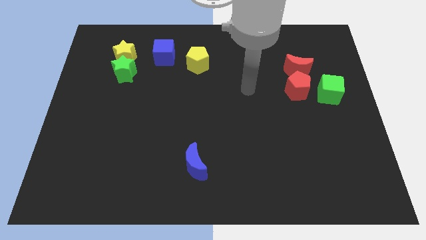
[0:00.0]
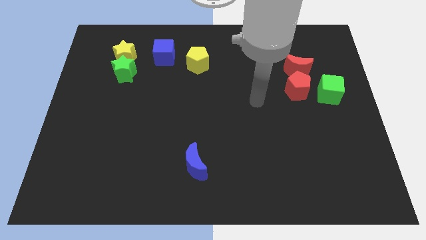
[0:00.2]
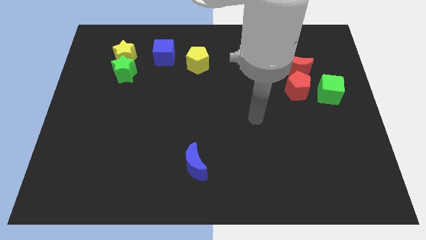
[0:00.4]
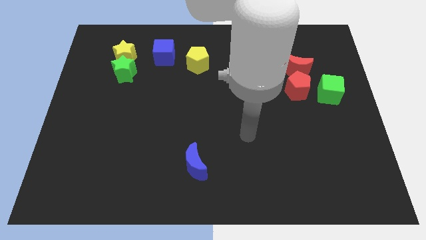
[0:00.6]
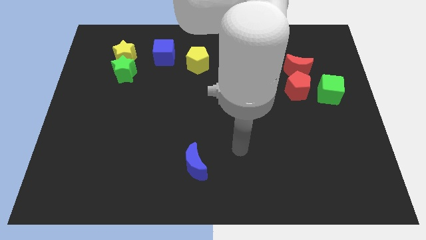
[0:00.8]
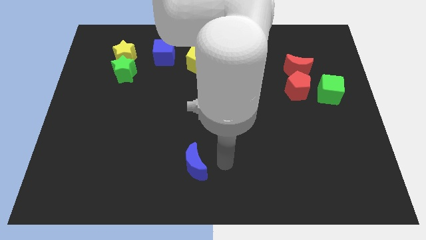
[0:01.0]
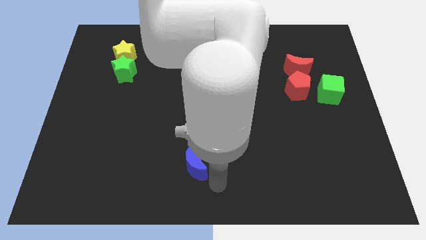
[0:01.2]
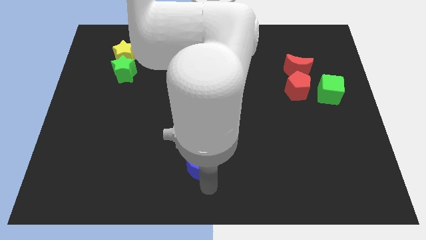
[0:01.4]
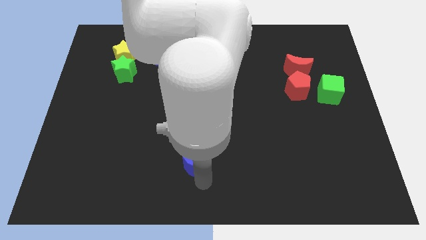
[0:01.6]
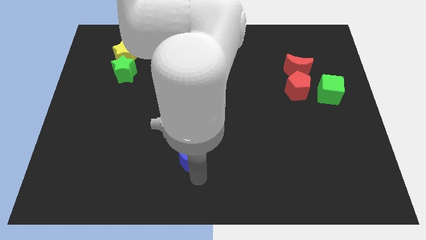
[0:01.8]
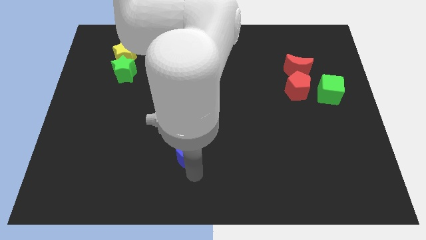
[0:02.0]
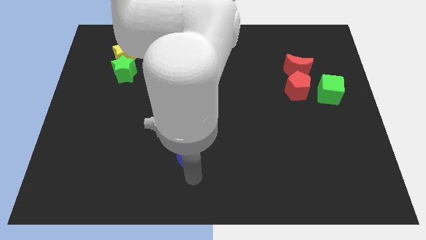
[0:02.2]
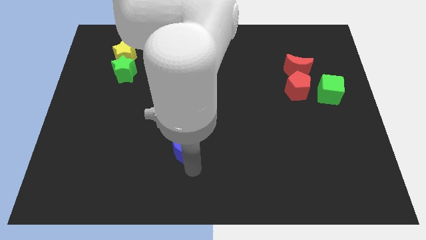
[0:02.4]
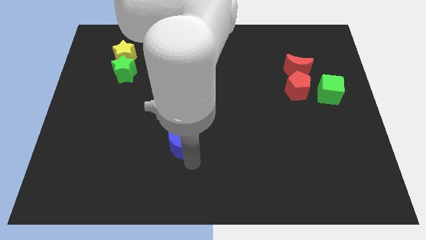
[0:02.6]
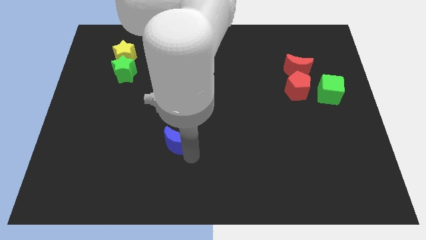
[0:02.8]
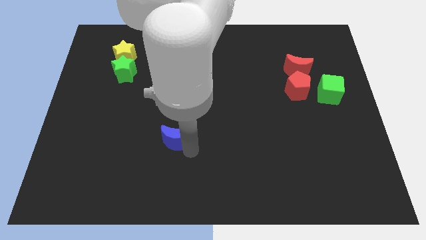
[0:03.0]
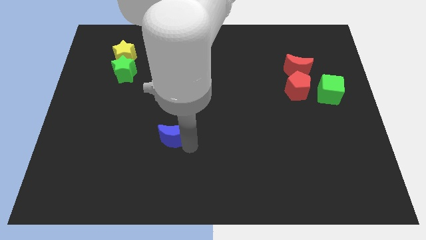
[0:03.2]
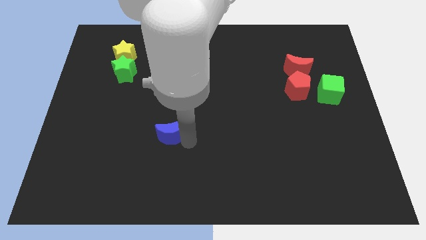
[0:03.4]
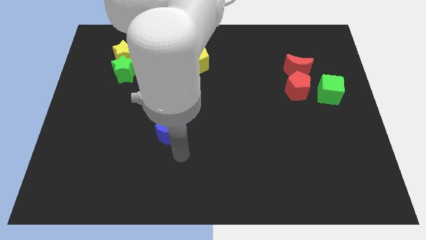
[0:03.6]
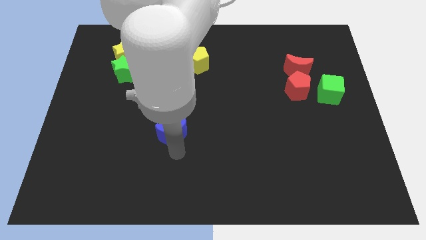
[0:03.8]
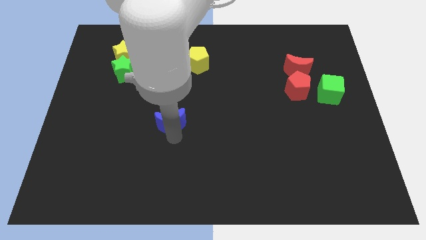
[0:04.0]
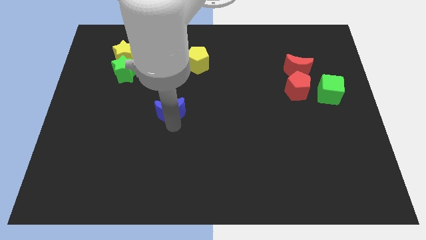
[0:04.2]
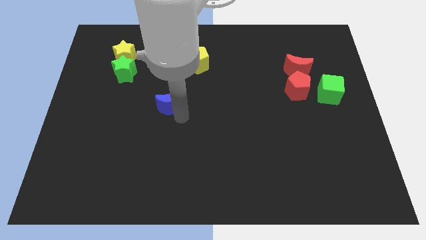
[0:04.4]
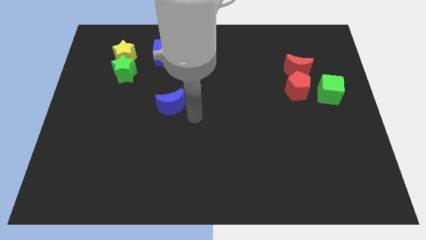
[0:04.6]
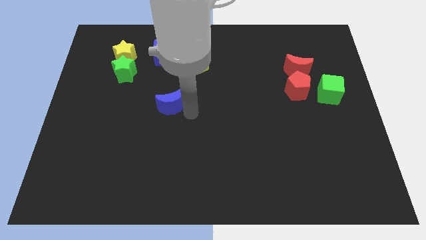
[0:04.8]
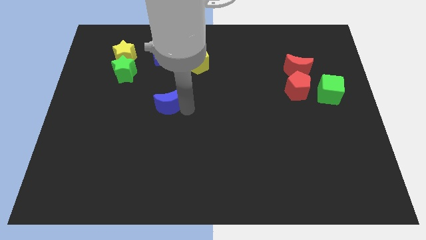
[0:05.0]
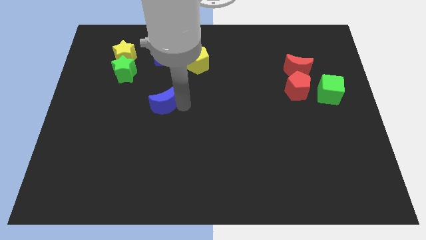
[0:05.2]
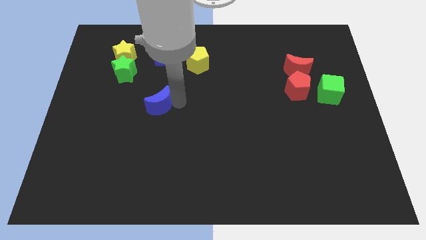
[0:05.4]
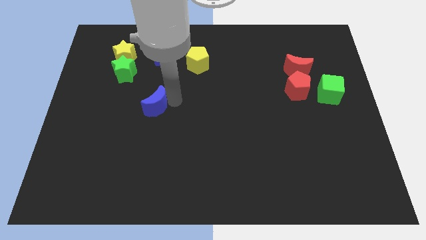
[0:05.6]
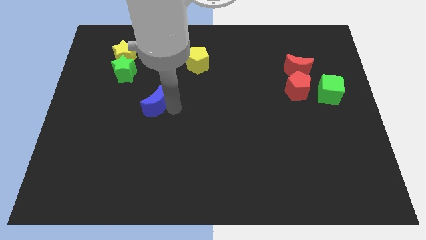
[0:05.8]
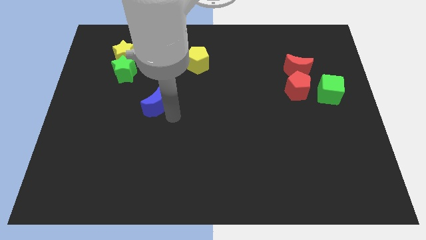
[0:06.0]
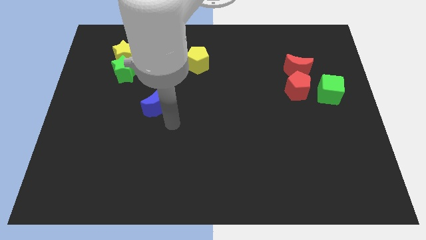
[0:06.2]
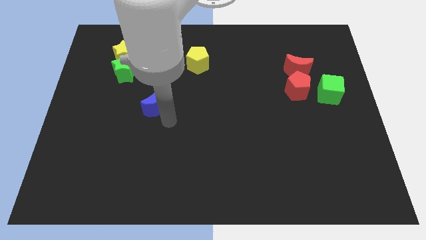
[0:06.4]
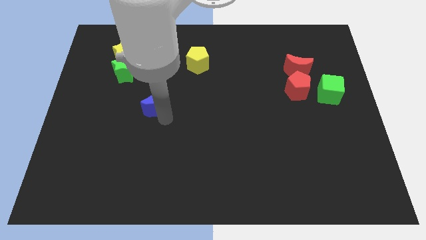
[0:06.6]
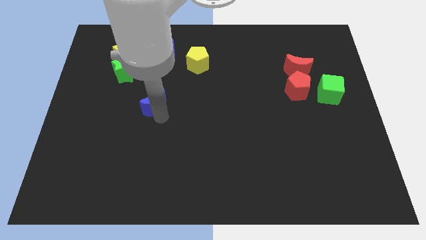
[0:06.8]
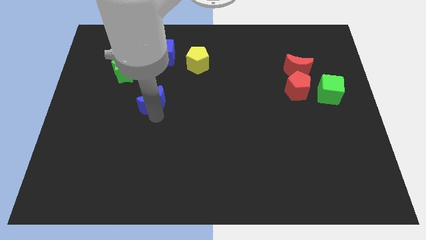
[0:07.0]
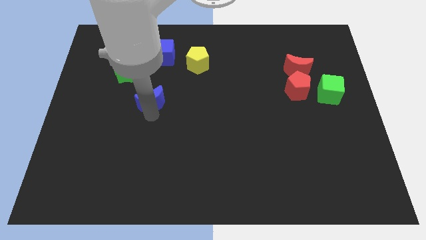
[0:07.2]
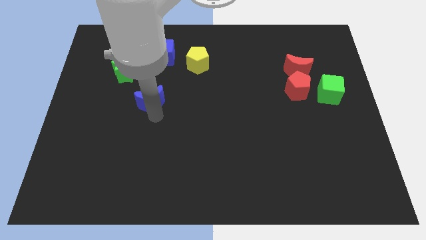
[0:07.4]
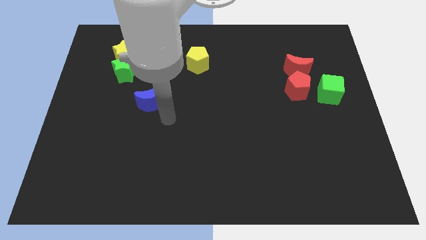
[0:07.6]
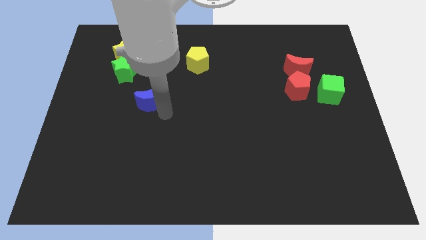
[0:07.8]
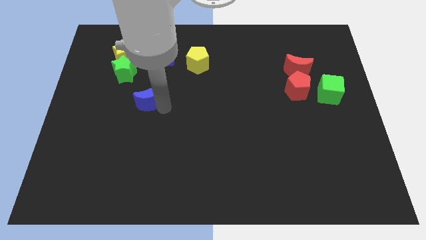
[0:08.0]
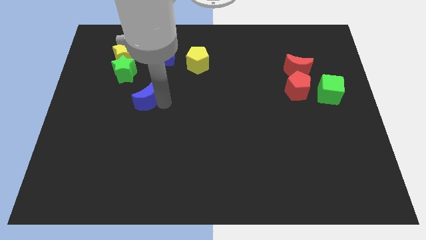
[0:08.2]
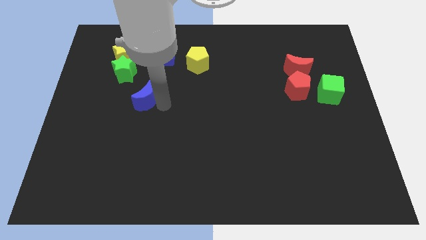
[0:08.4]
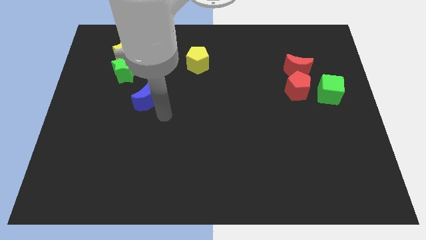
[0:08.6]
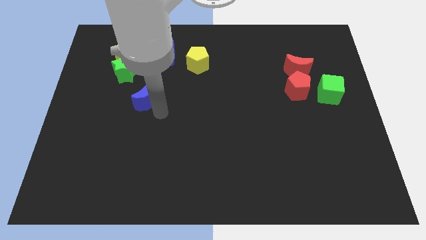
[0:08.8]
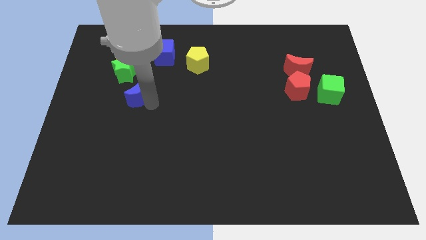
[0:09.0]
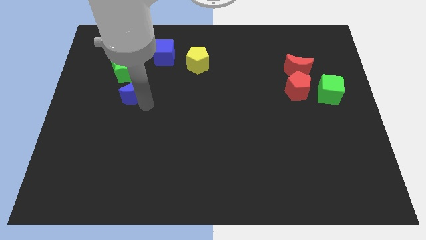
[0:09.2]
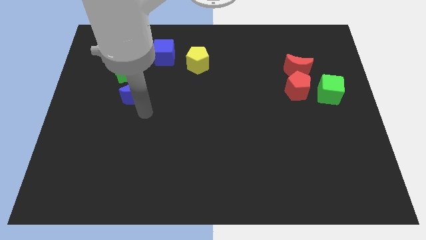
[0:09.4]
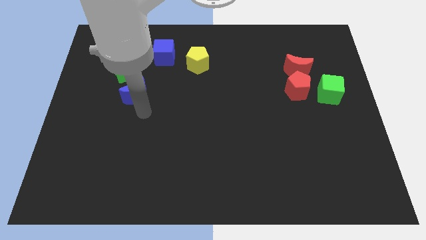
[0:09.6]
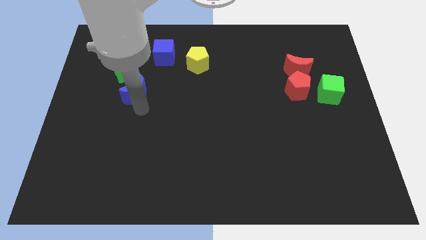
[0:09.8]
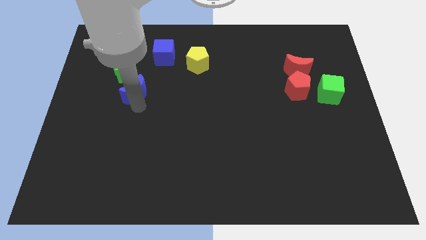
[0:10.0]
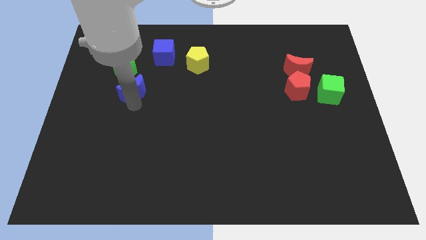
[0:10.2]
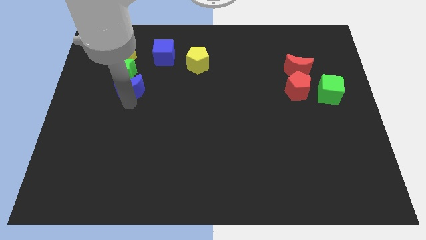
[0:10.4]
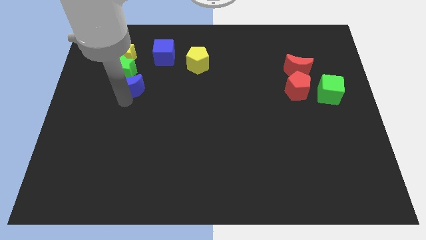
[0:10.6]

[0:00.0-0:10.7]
slide the blue moon to the green star

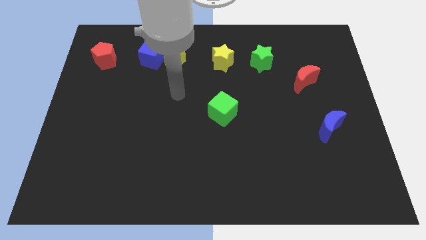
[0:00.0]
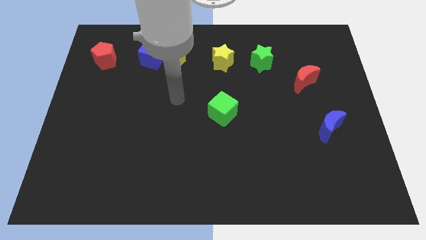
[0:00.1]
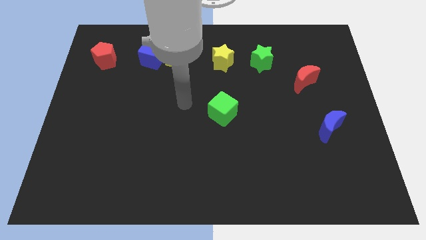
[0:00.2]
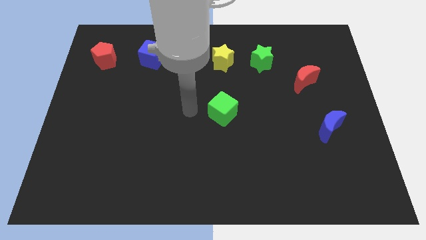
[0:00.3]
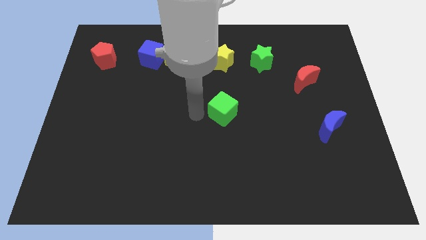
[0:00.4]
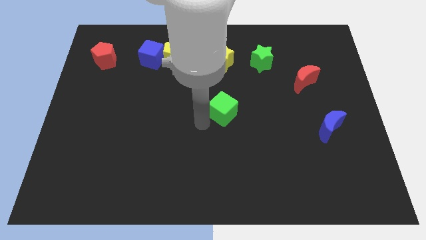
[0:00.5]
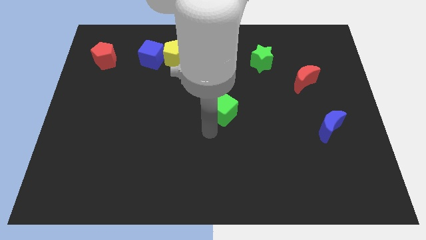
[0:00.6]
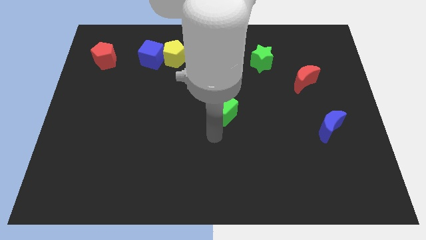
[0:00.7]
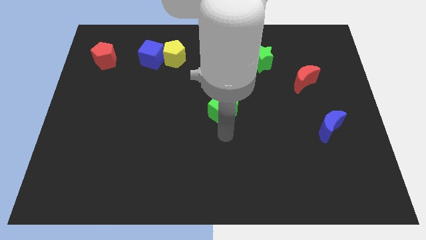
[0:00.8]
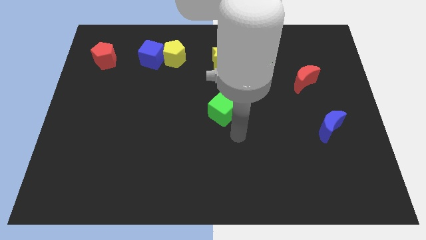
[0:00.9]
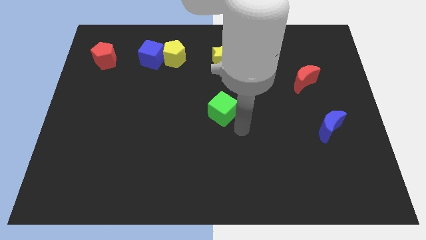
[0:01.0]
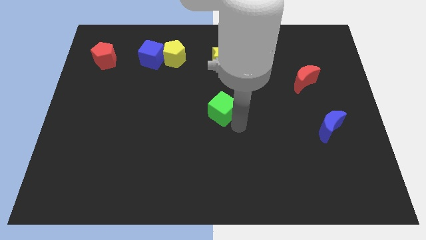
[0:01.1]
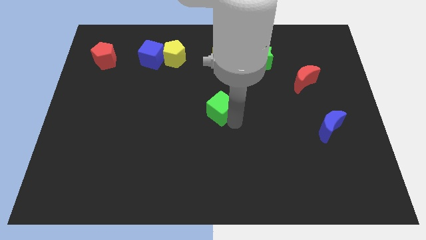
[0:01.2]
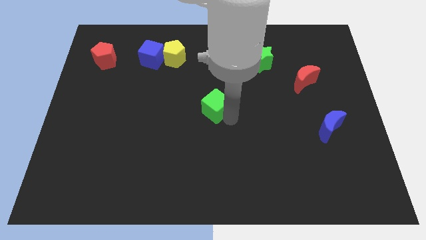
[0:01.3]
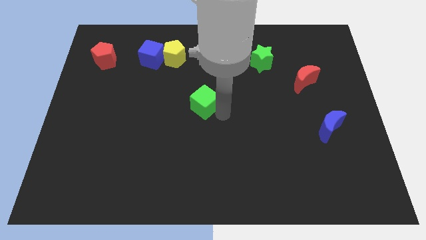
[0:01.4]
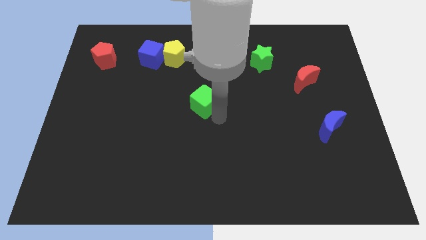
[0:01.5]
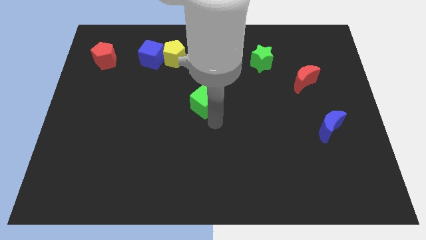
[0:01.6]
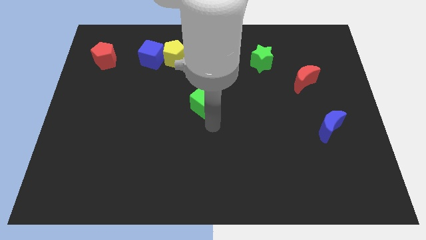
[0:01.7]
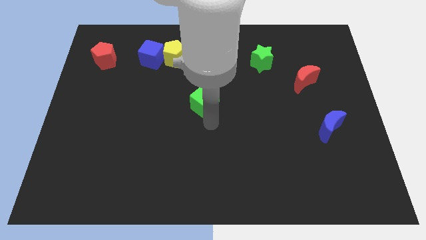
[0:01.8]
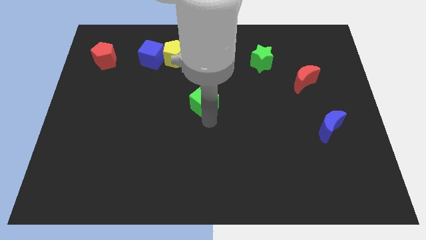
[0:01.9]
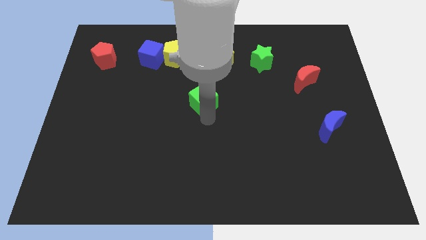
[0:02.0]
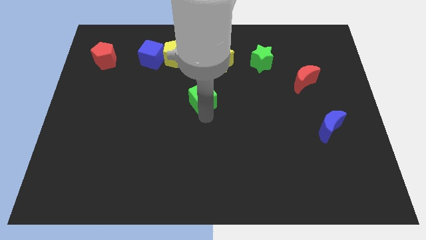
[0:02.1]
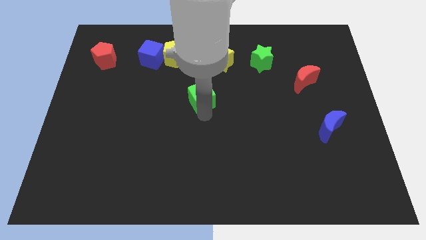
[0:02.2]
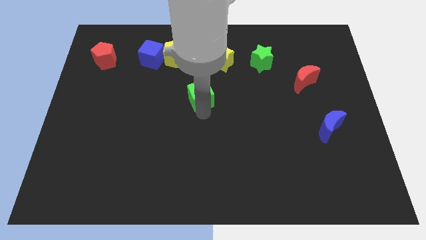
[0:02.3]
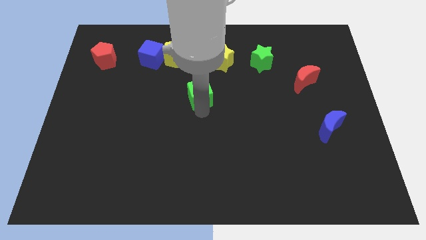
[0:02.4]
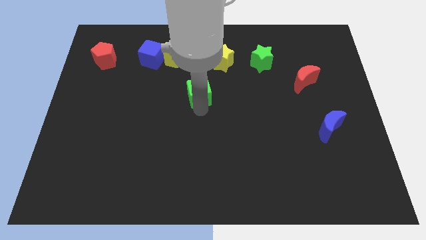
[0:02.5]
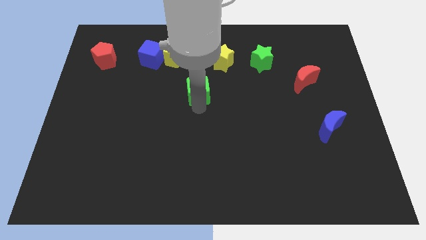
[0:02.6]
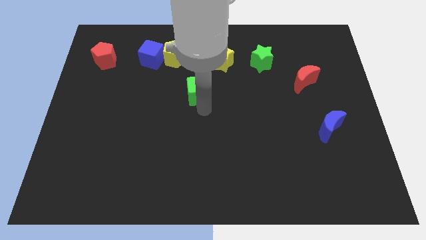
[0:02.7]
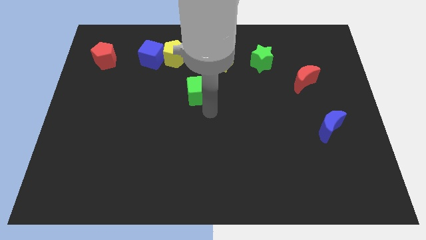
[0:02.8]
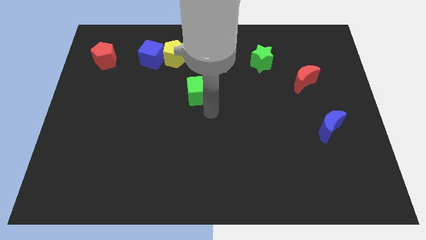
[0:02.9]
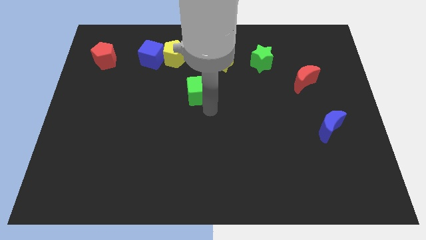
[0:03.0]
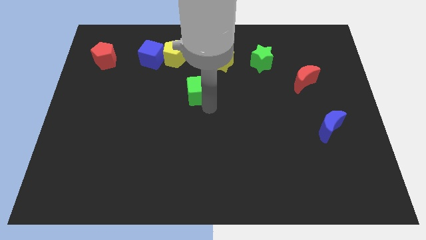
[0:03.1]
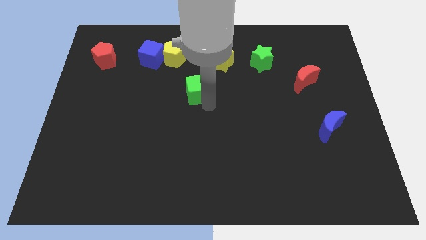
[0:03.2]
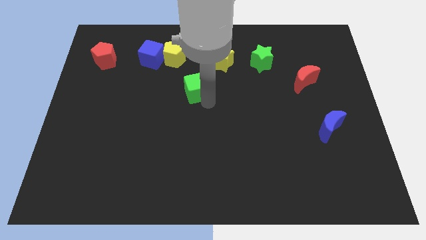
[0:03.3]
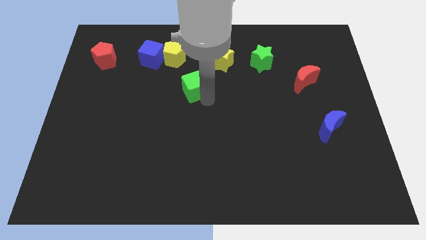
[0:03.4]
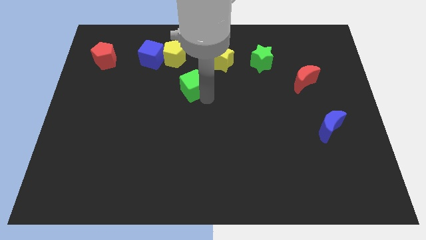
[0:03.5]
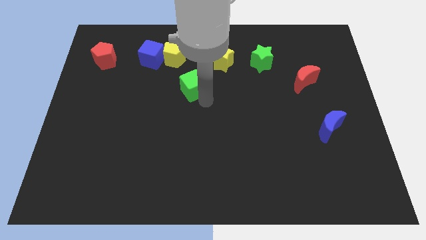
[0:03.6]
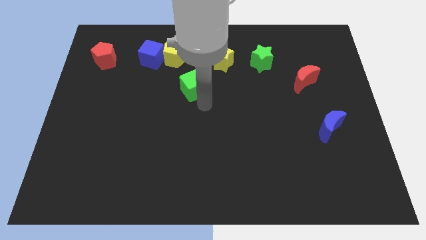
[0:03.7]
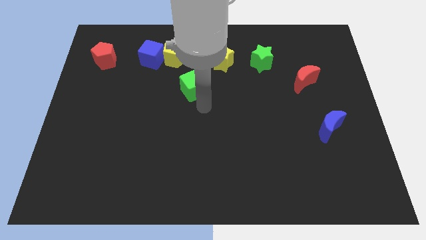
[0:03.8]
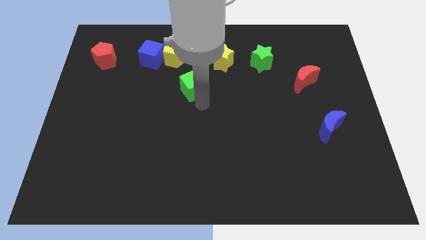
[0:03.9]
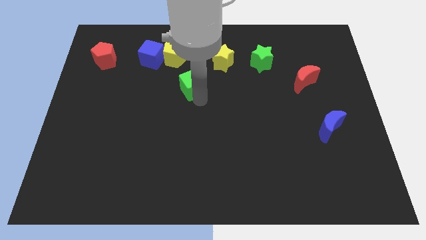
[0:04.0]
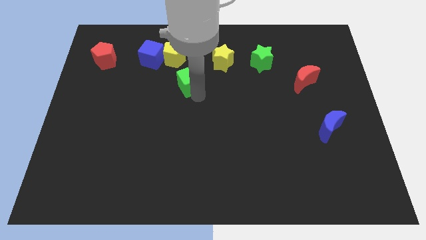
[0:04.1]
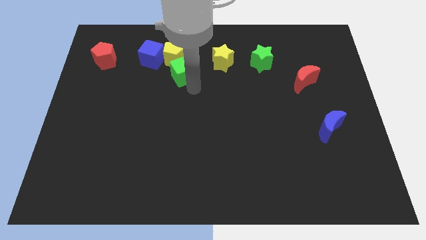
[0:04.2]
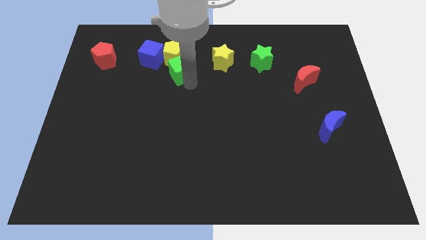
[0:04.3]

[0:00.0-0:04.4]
move the green cube close to the yellow pentagon
